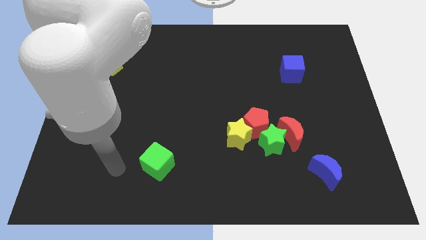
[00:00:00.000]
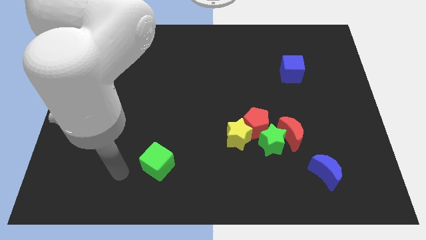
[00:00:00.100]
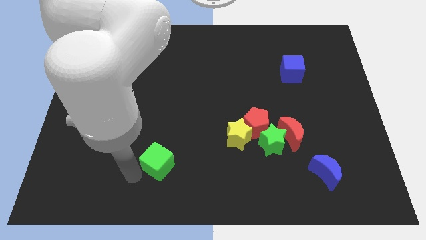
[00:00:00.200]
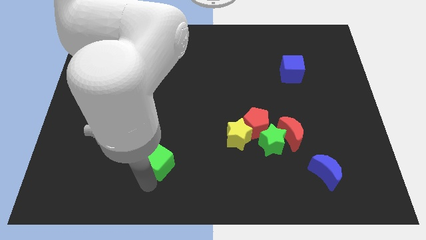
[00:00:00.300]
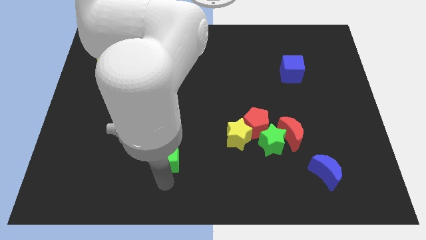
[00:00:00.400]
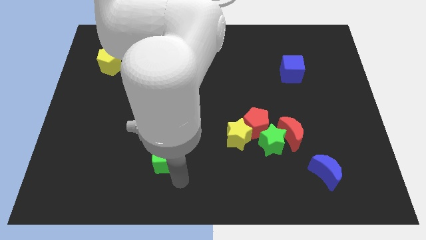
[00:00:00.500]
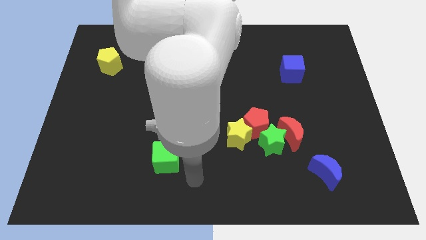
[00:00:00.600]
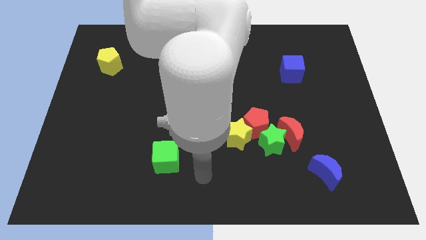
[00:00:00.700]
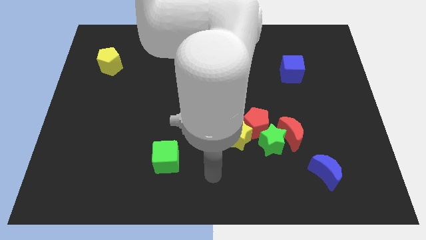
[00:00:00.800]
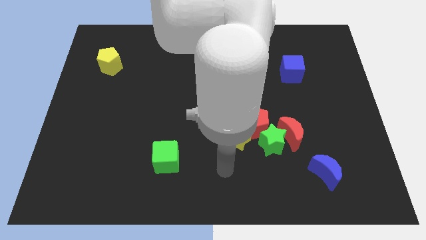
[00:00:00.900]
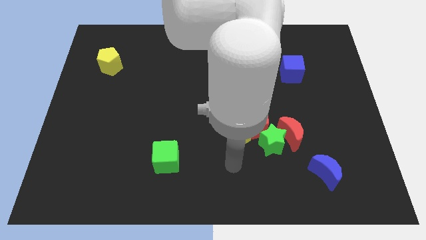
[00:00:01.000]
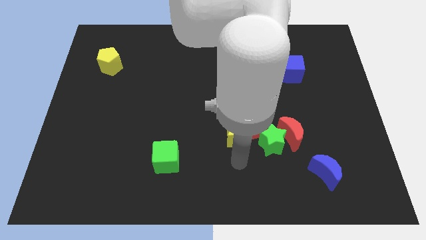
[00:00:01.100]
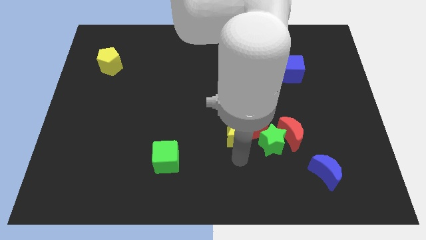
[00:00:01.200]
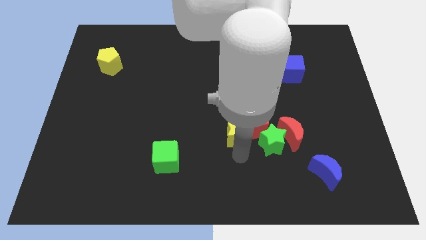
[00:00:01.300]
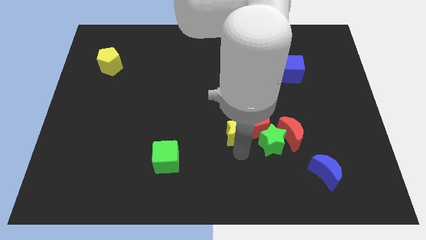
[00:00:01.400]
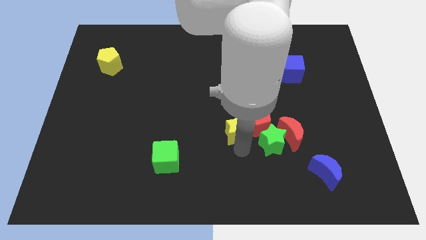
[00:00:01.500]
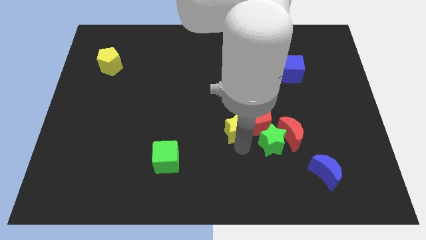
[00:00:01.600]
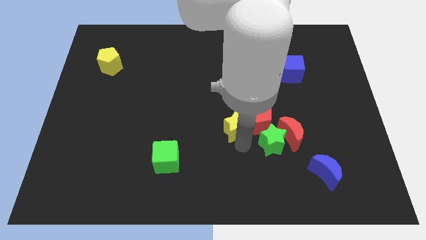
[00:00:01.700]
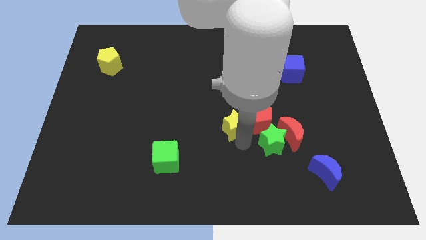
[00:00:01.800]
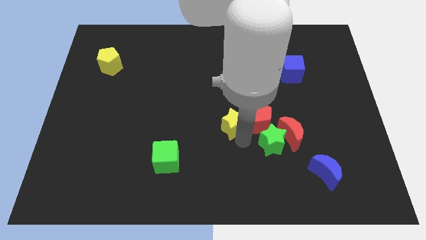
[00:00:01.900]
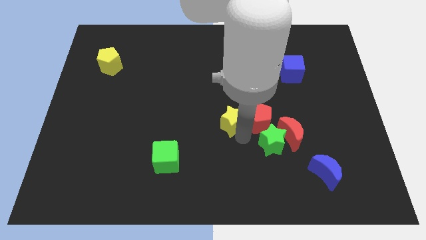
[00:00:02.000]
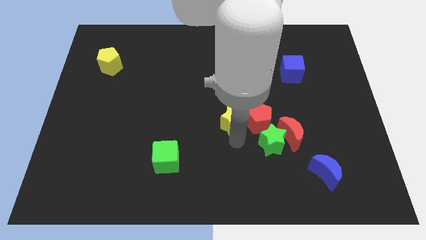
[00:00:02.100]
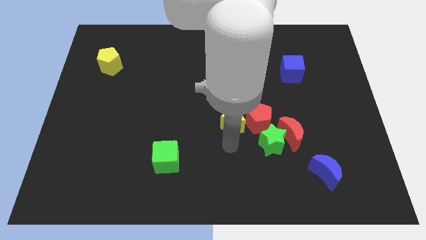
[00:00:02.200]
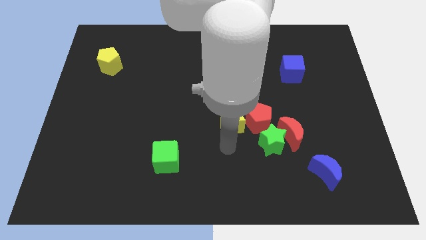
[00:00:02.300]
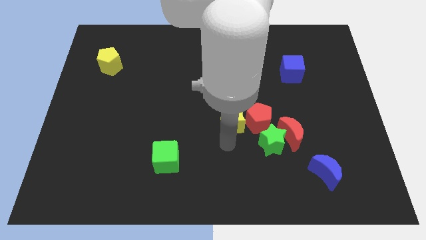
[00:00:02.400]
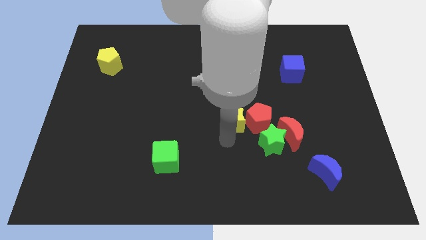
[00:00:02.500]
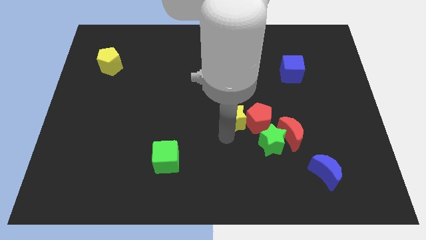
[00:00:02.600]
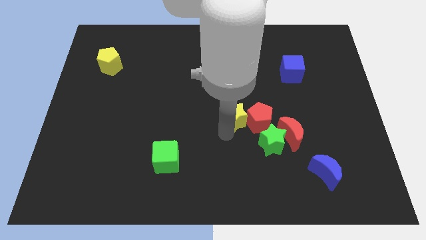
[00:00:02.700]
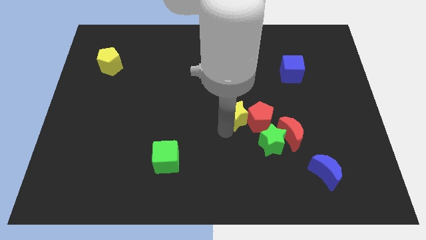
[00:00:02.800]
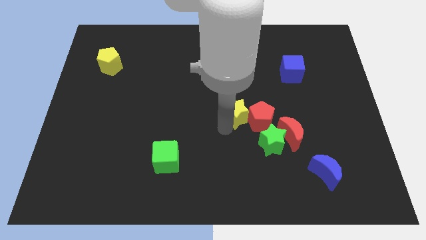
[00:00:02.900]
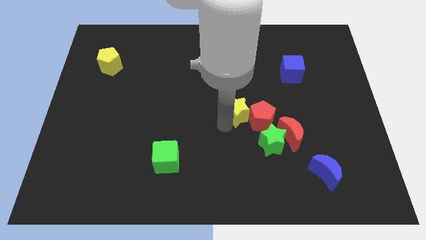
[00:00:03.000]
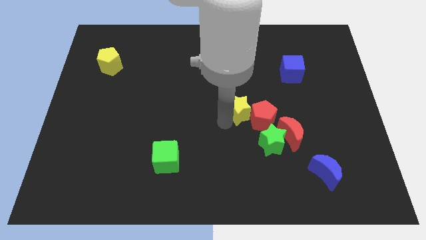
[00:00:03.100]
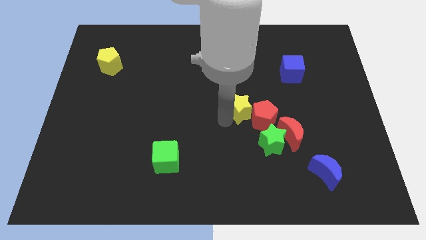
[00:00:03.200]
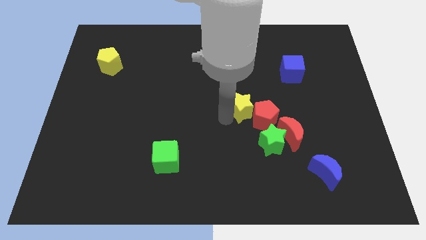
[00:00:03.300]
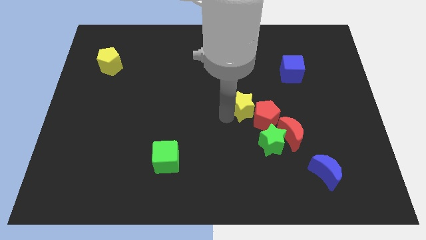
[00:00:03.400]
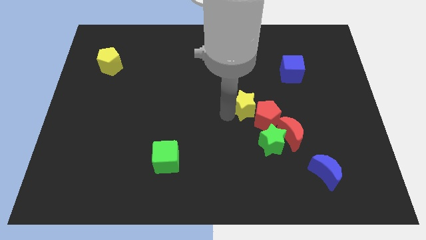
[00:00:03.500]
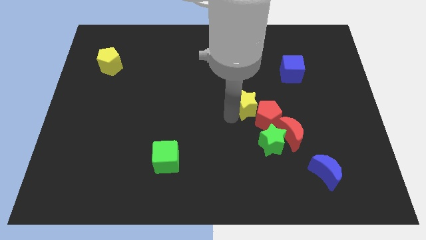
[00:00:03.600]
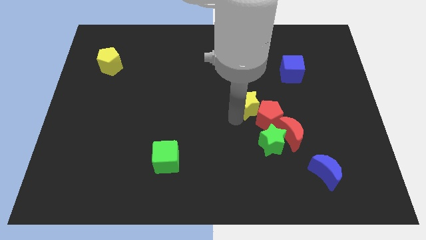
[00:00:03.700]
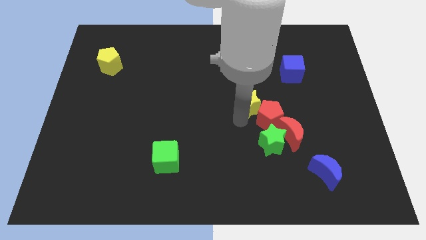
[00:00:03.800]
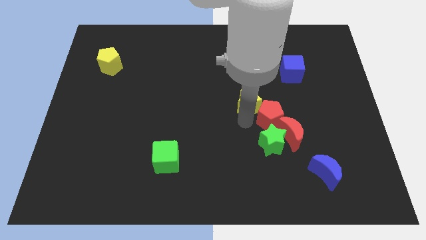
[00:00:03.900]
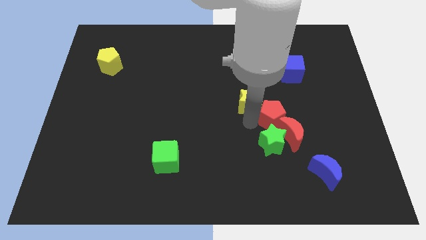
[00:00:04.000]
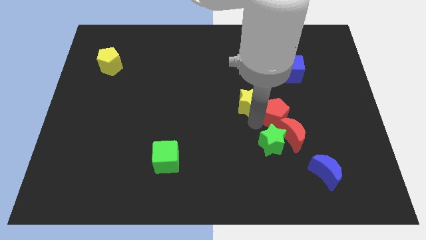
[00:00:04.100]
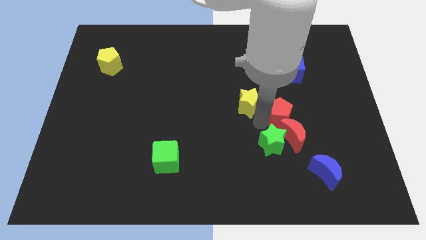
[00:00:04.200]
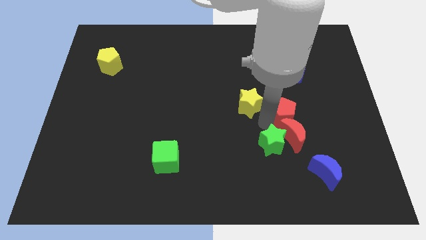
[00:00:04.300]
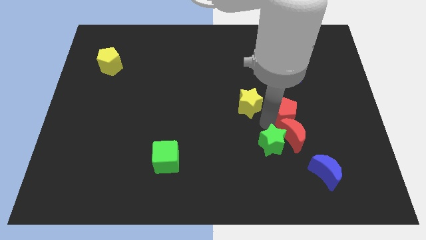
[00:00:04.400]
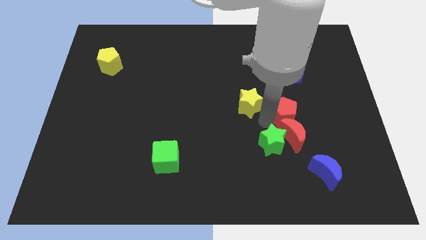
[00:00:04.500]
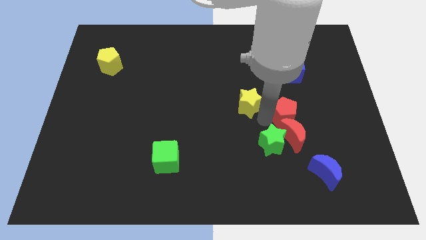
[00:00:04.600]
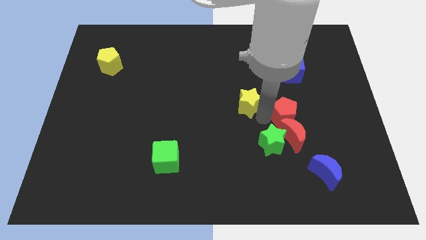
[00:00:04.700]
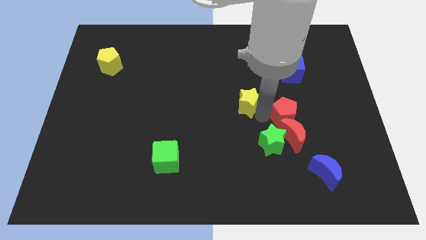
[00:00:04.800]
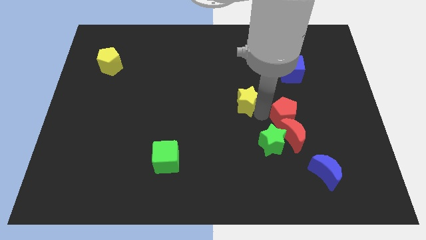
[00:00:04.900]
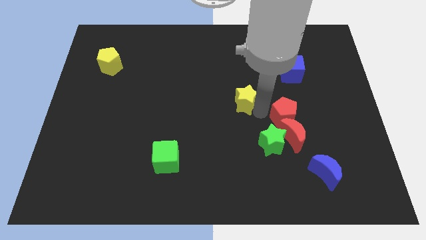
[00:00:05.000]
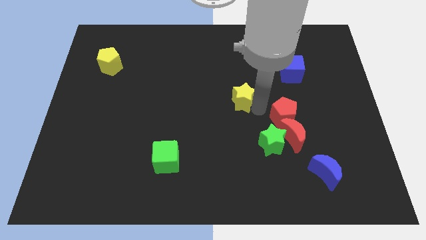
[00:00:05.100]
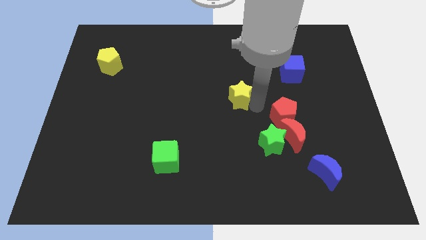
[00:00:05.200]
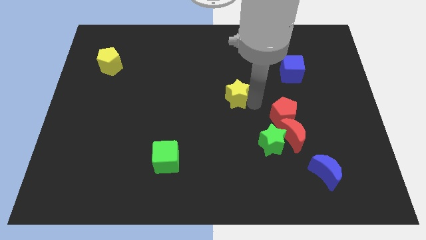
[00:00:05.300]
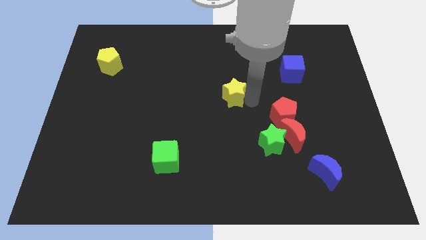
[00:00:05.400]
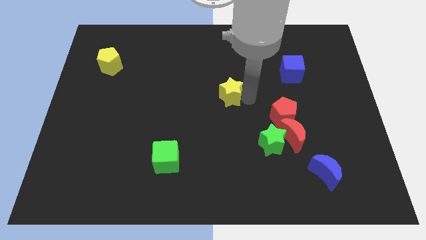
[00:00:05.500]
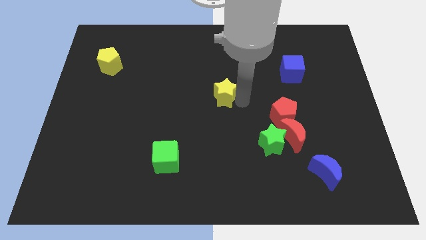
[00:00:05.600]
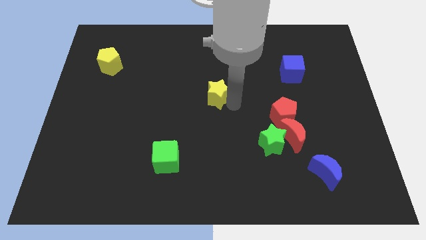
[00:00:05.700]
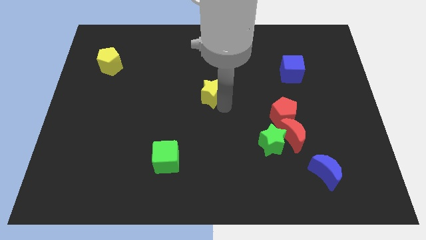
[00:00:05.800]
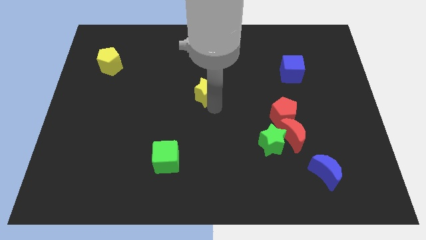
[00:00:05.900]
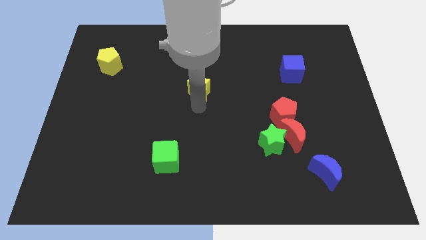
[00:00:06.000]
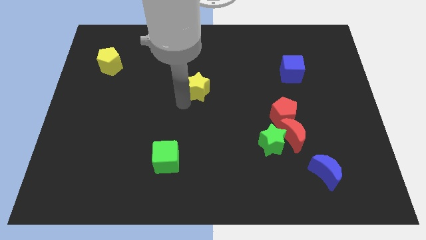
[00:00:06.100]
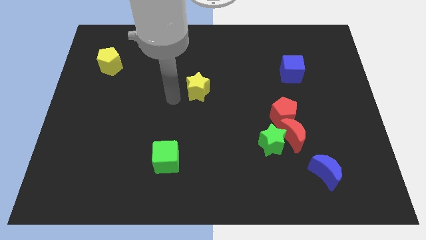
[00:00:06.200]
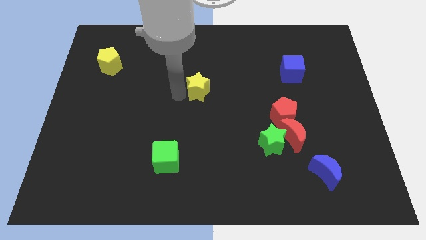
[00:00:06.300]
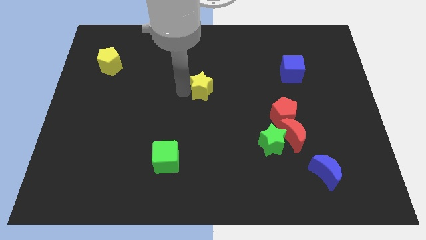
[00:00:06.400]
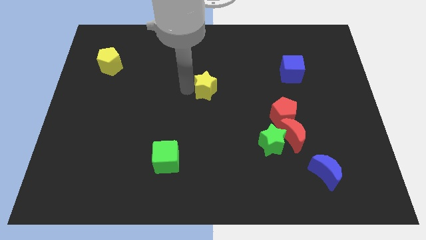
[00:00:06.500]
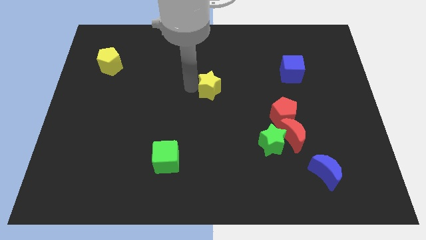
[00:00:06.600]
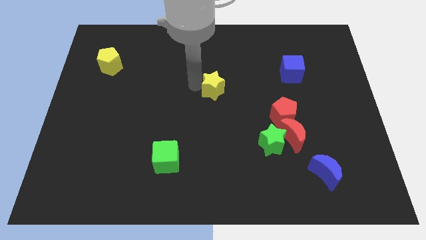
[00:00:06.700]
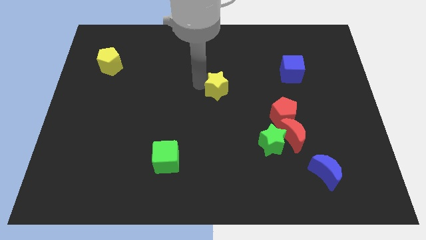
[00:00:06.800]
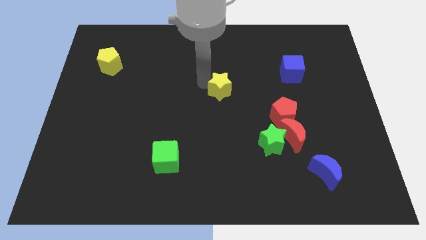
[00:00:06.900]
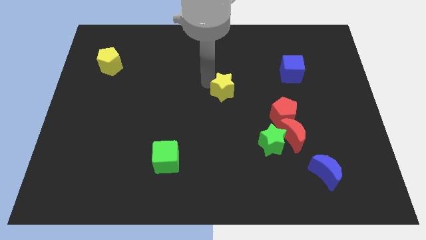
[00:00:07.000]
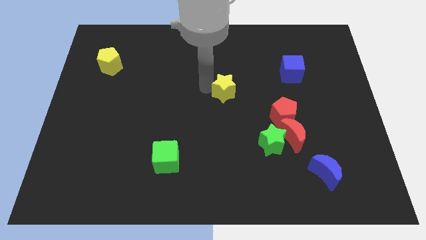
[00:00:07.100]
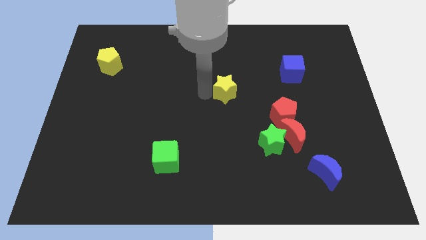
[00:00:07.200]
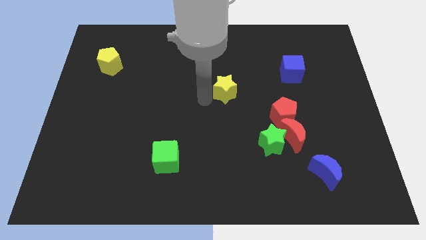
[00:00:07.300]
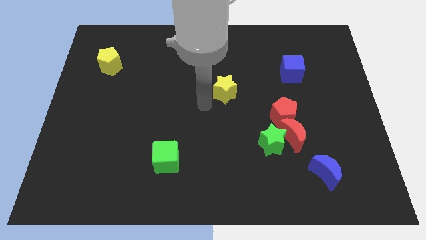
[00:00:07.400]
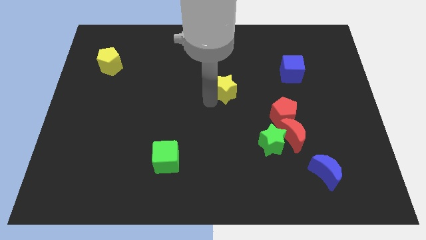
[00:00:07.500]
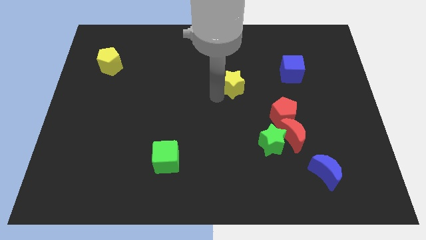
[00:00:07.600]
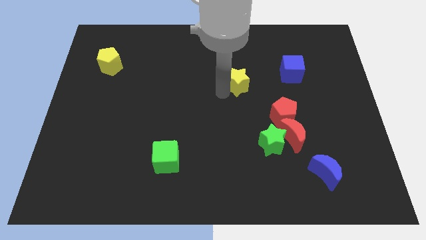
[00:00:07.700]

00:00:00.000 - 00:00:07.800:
slide the yellow star just left of the blue cube
